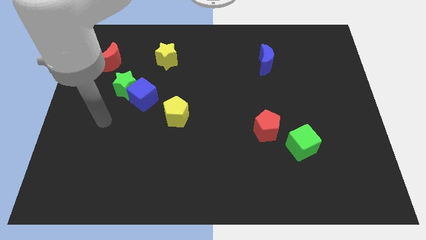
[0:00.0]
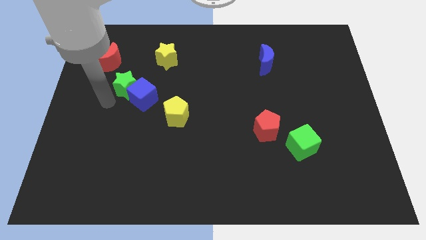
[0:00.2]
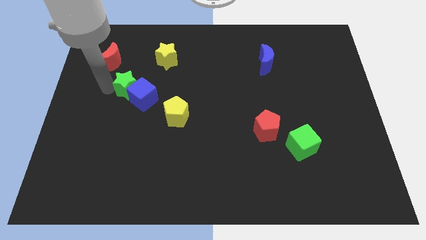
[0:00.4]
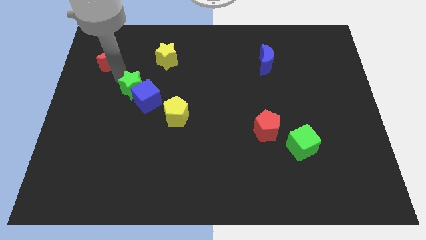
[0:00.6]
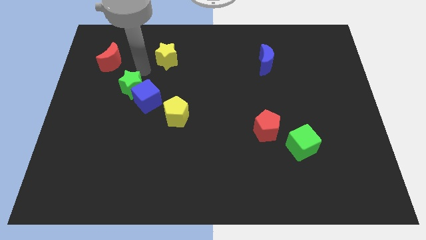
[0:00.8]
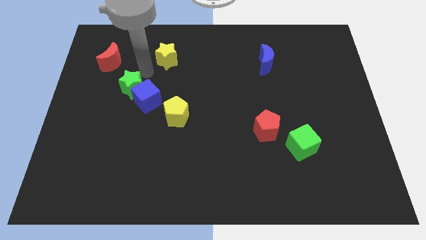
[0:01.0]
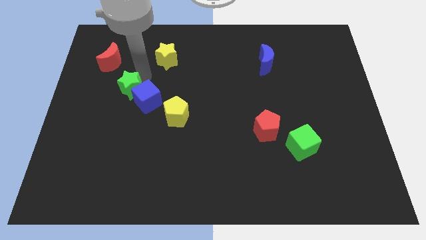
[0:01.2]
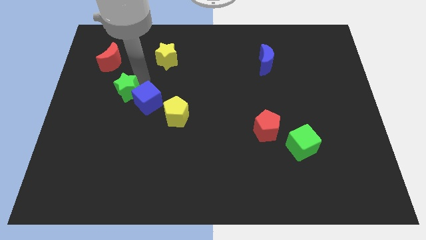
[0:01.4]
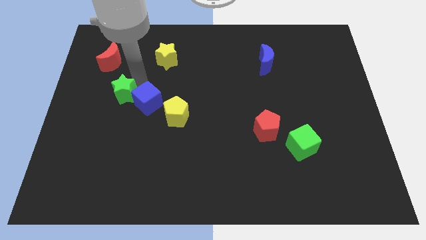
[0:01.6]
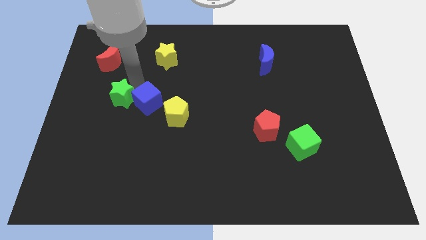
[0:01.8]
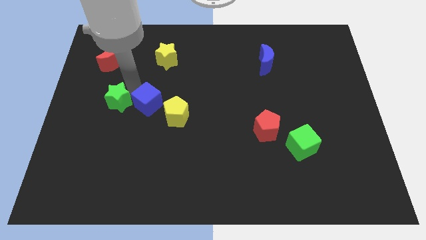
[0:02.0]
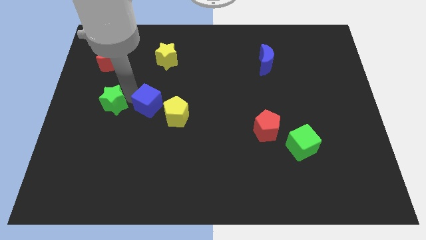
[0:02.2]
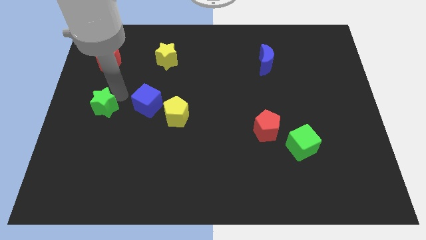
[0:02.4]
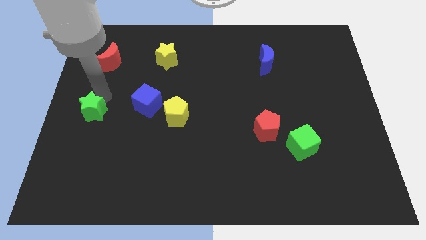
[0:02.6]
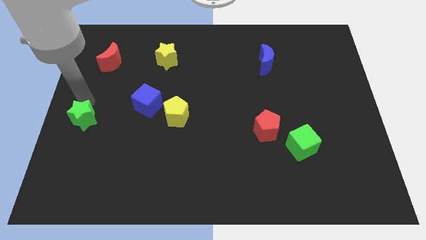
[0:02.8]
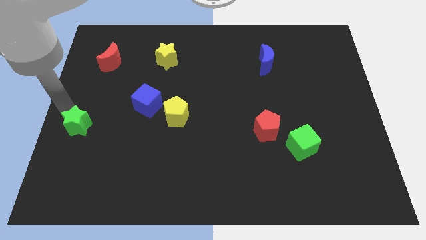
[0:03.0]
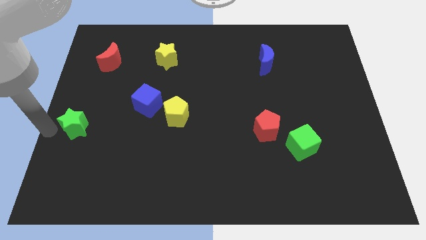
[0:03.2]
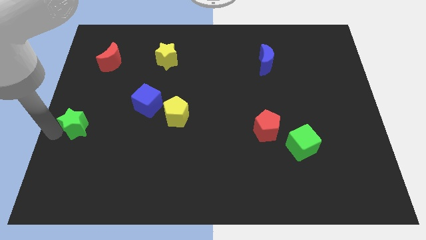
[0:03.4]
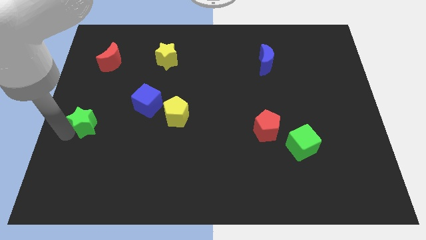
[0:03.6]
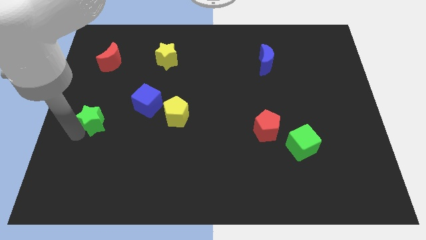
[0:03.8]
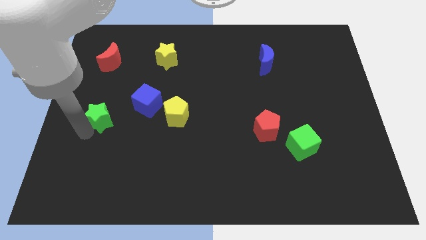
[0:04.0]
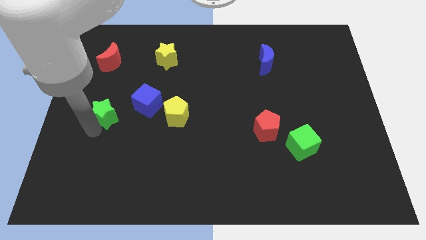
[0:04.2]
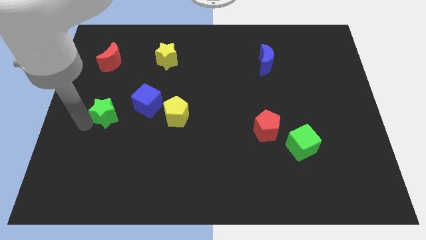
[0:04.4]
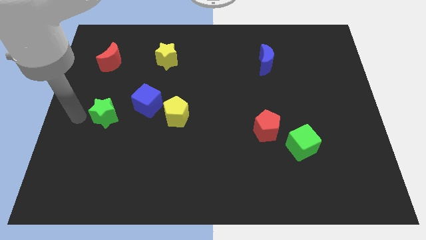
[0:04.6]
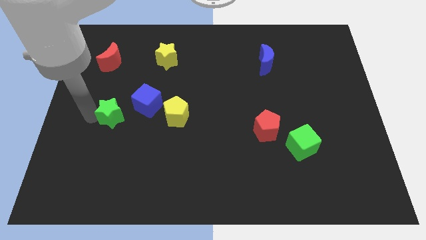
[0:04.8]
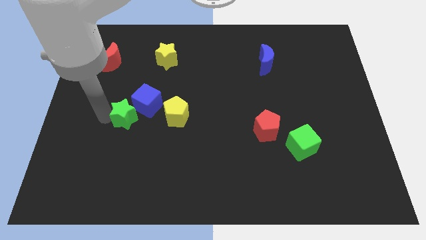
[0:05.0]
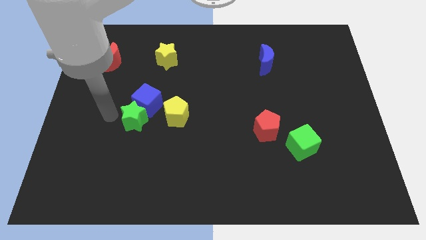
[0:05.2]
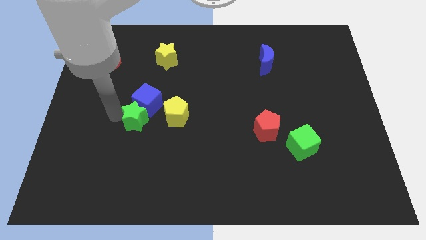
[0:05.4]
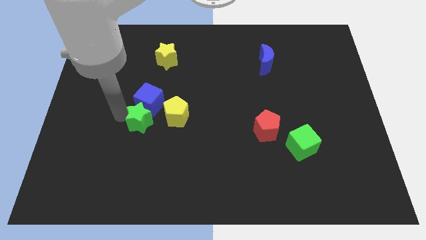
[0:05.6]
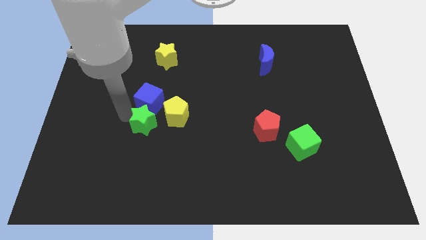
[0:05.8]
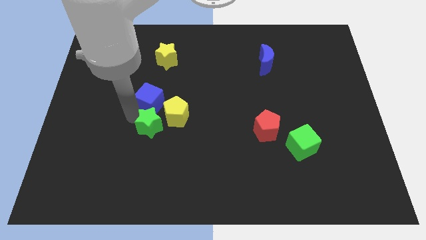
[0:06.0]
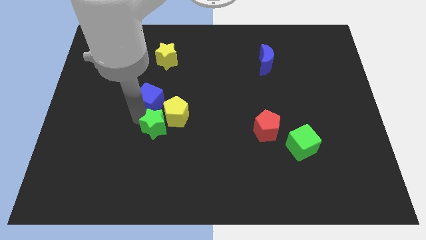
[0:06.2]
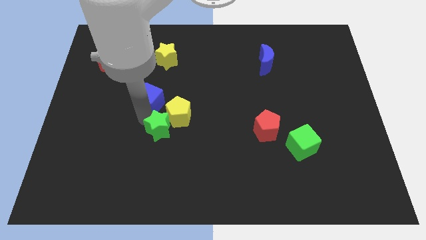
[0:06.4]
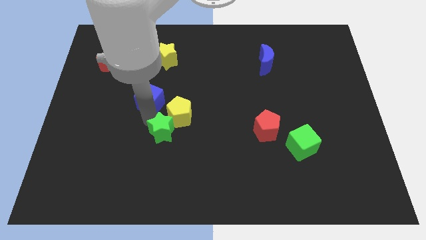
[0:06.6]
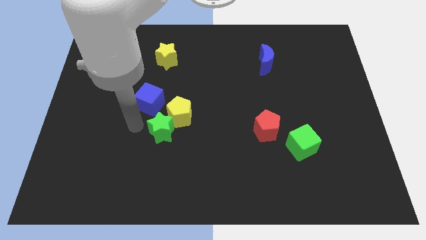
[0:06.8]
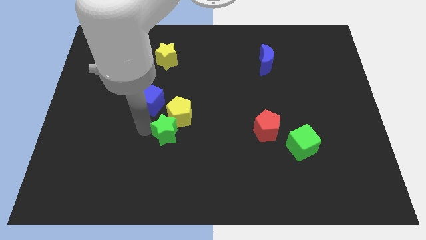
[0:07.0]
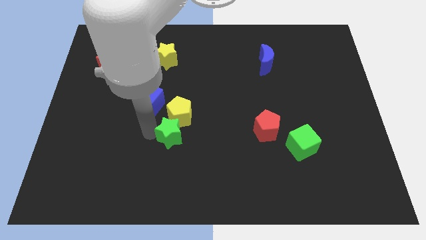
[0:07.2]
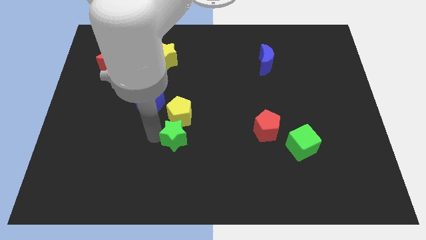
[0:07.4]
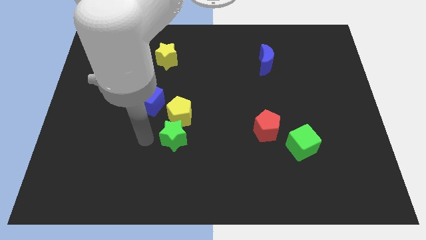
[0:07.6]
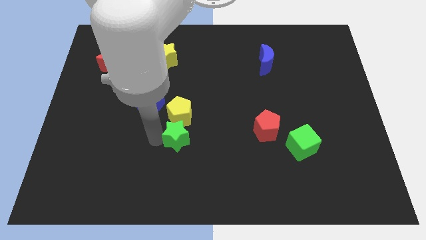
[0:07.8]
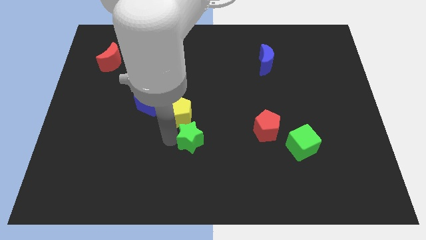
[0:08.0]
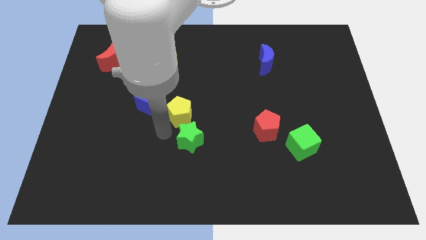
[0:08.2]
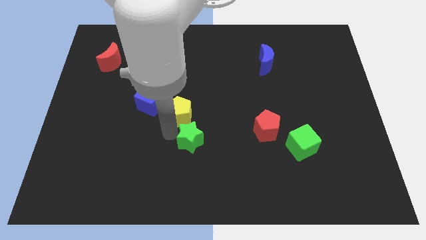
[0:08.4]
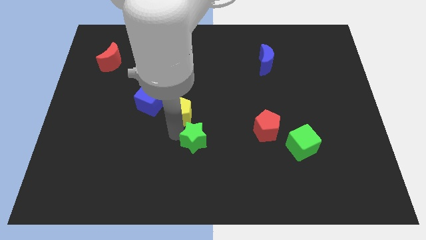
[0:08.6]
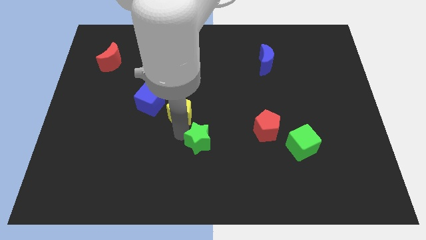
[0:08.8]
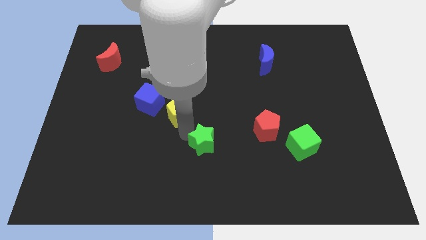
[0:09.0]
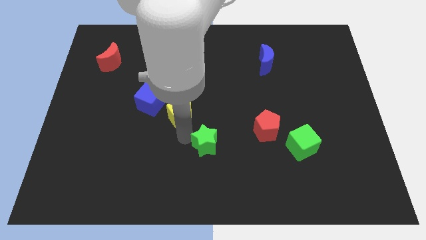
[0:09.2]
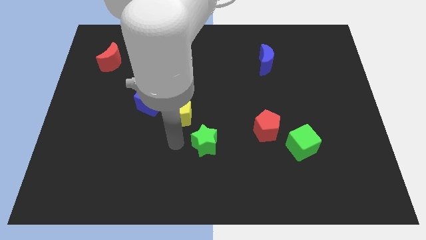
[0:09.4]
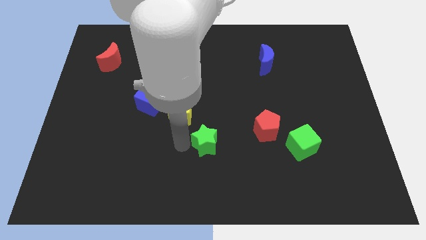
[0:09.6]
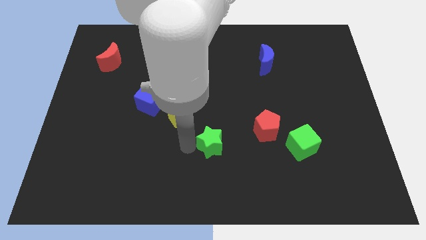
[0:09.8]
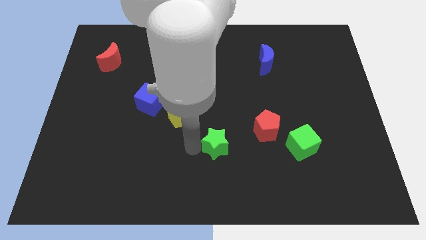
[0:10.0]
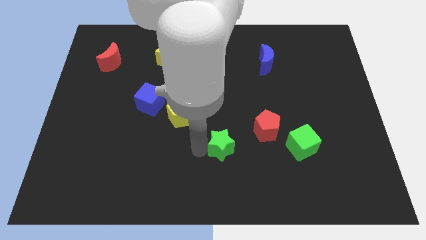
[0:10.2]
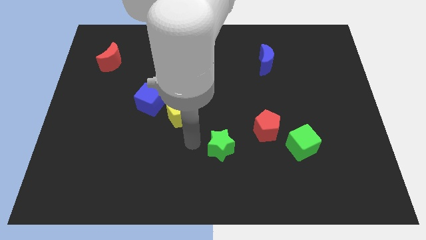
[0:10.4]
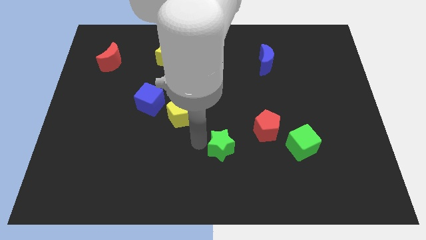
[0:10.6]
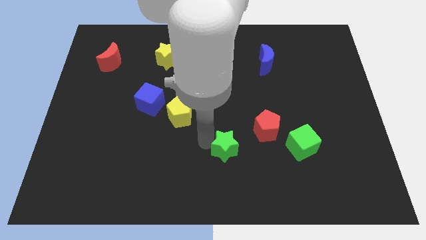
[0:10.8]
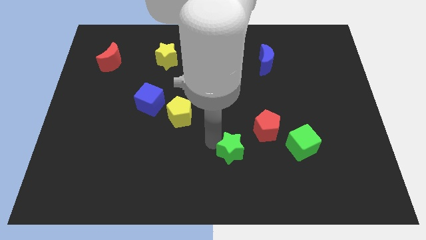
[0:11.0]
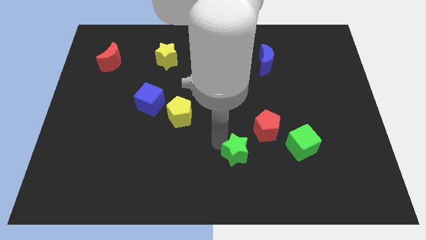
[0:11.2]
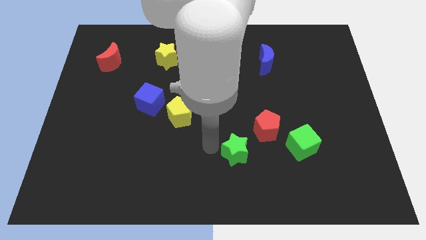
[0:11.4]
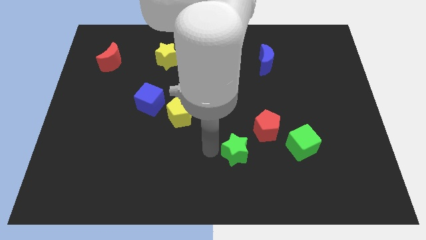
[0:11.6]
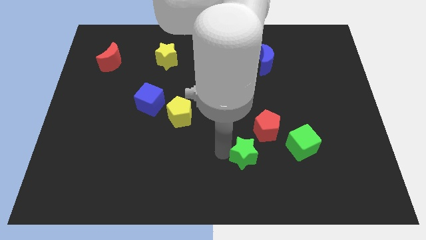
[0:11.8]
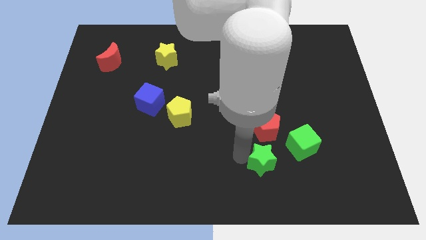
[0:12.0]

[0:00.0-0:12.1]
slide the green star to the bottom left side of the green cube

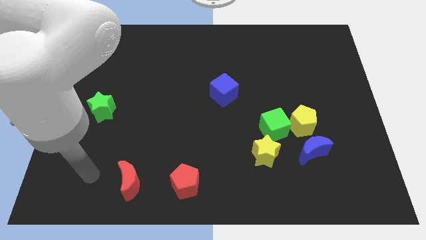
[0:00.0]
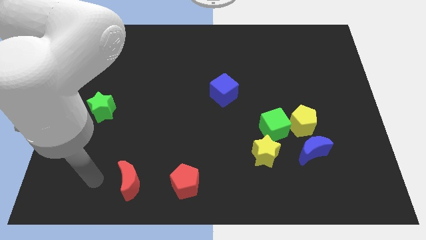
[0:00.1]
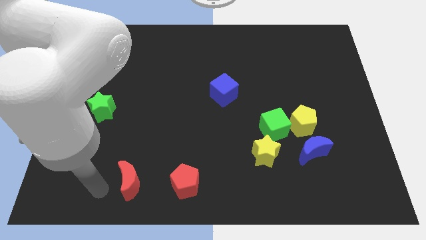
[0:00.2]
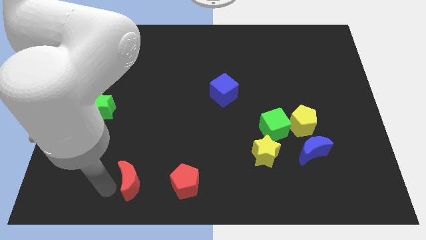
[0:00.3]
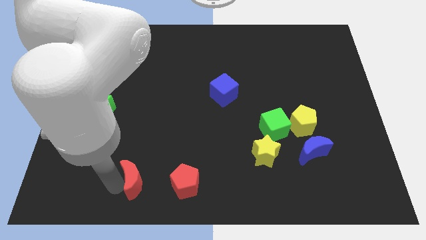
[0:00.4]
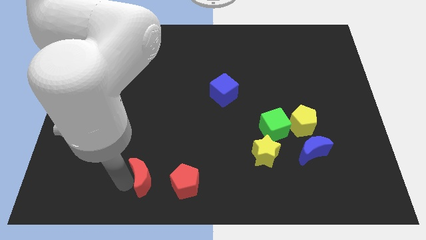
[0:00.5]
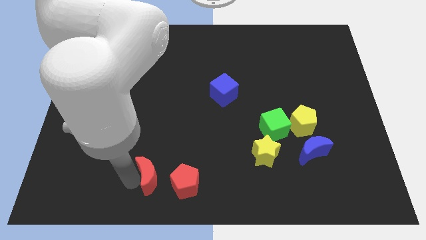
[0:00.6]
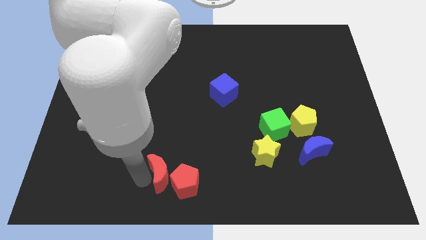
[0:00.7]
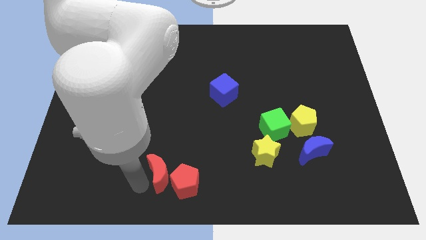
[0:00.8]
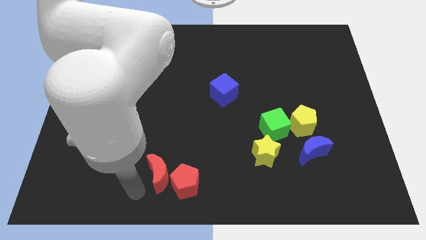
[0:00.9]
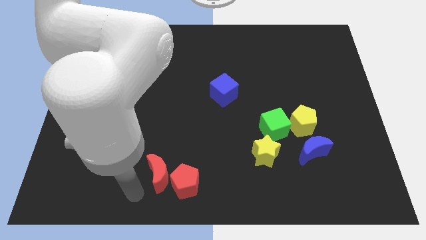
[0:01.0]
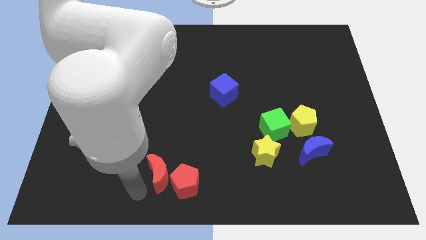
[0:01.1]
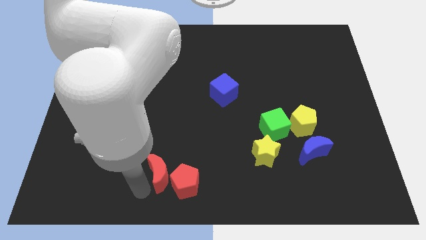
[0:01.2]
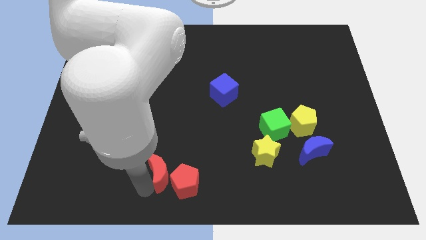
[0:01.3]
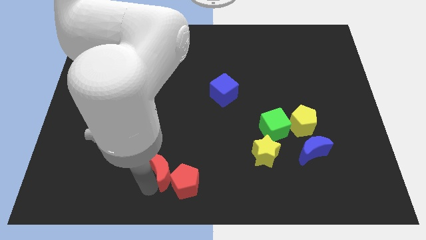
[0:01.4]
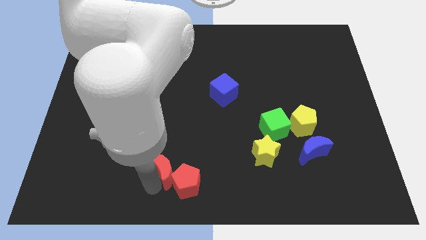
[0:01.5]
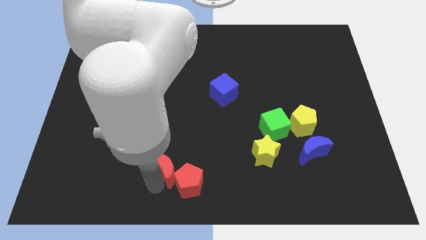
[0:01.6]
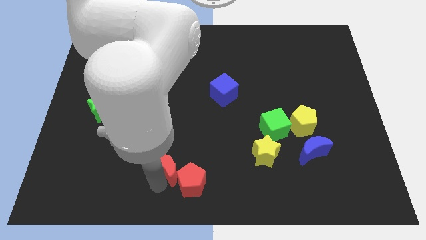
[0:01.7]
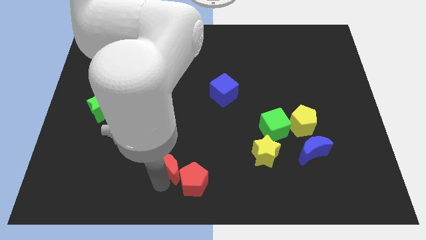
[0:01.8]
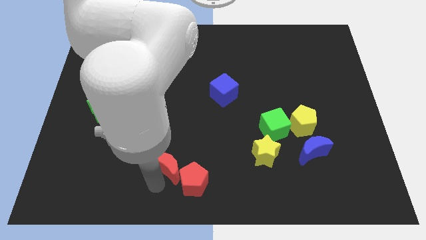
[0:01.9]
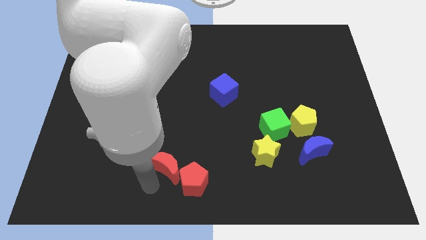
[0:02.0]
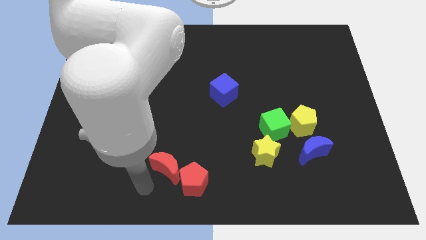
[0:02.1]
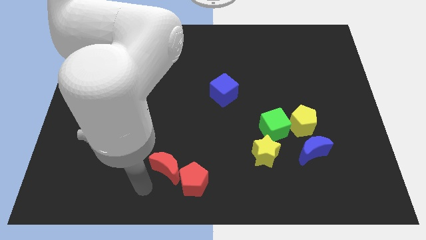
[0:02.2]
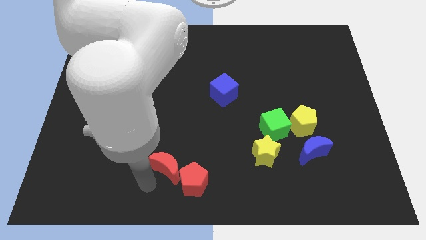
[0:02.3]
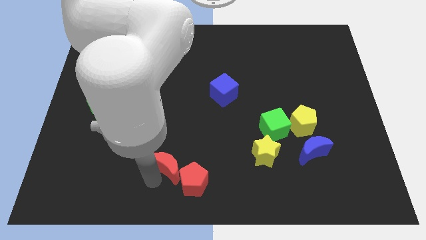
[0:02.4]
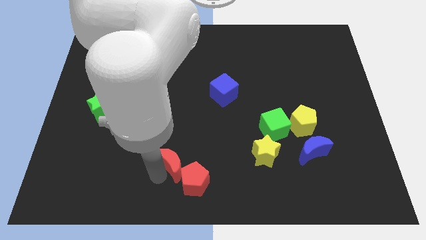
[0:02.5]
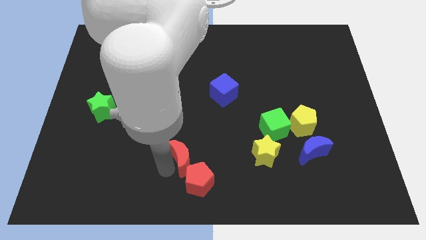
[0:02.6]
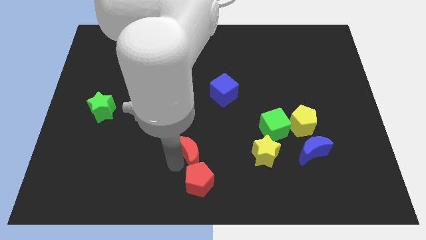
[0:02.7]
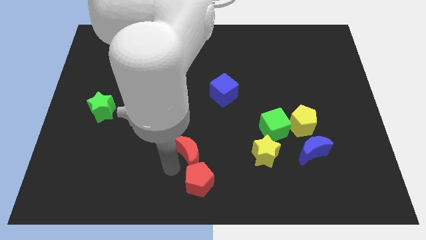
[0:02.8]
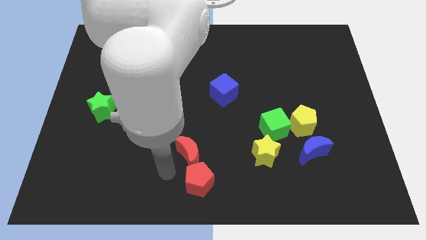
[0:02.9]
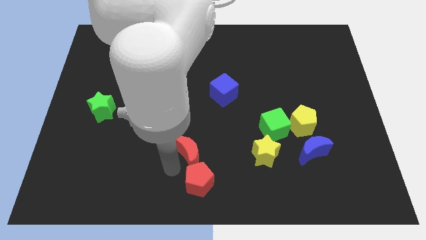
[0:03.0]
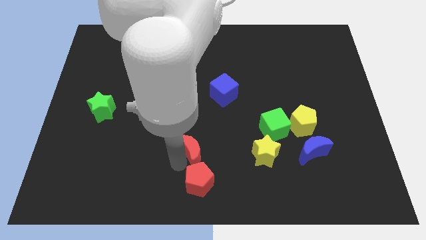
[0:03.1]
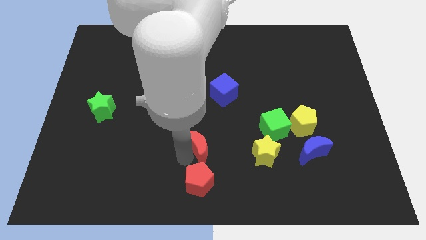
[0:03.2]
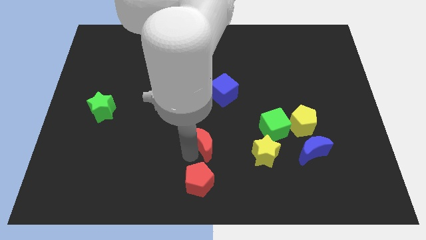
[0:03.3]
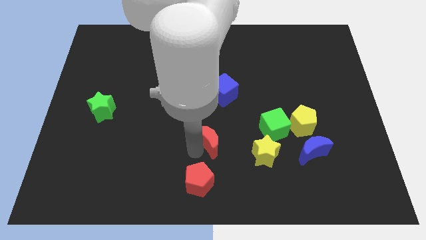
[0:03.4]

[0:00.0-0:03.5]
put the red moon to the left of the green cube
